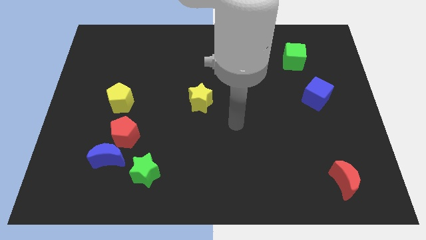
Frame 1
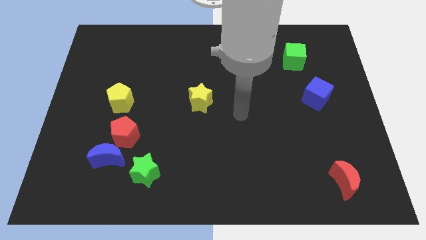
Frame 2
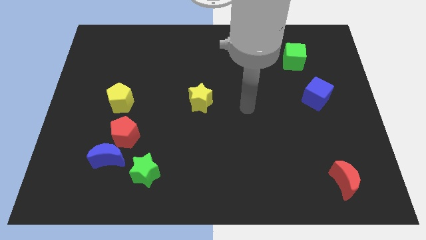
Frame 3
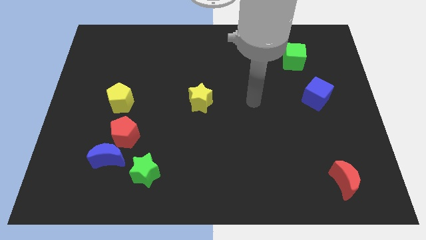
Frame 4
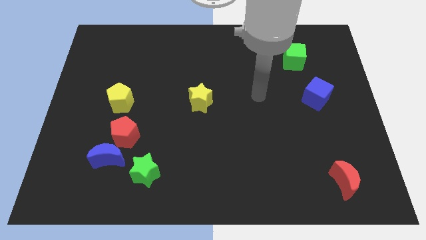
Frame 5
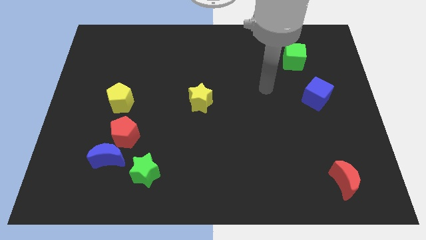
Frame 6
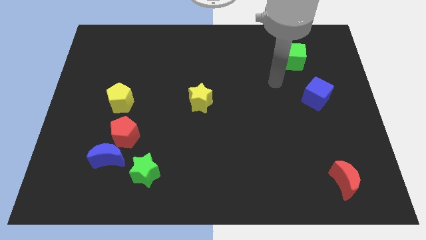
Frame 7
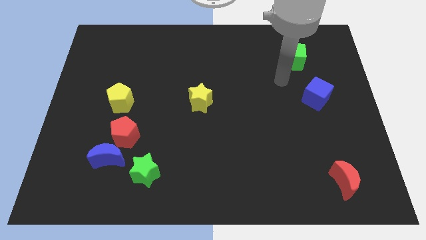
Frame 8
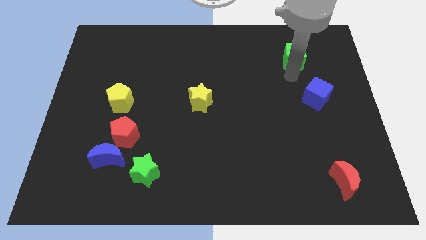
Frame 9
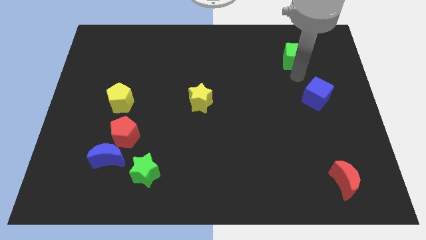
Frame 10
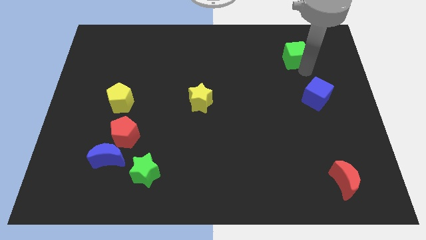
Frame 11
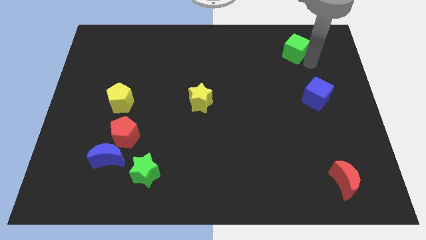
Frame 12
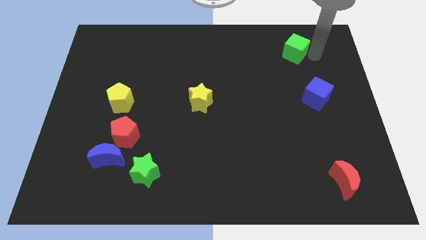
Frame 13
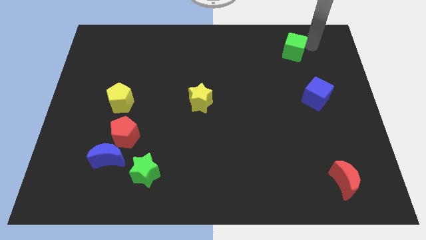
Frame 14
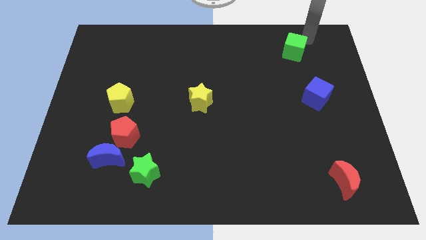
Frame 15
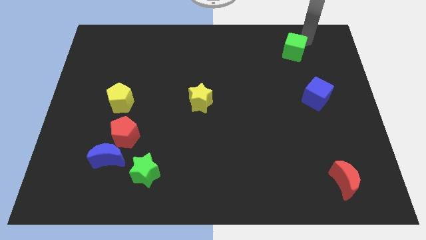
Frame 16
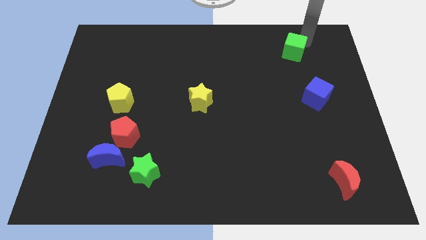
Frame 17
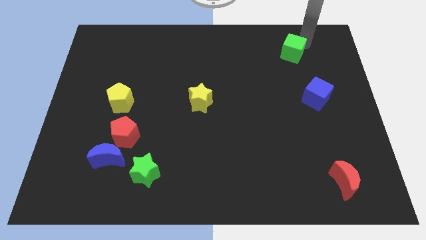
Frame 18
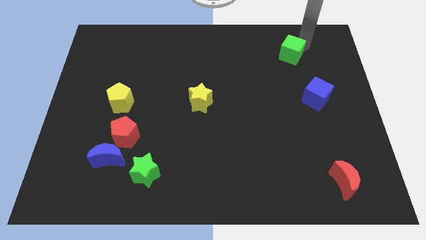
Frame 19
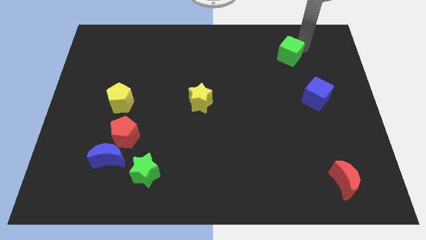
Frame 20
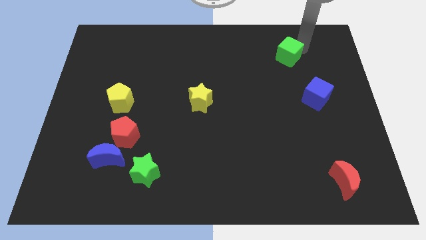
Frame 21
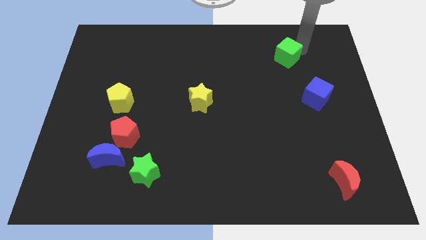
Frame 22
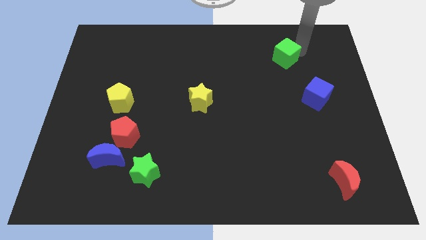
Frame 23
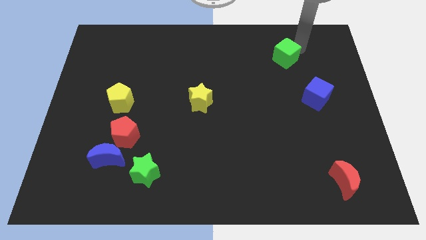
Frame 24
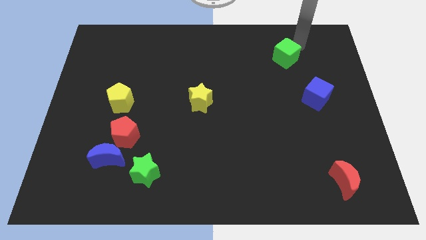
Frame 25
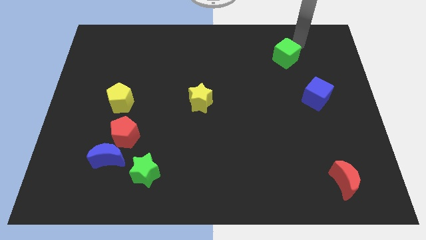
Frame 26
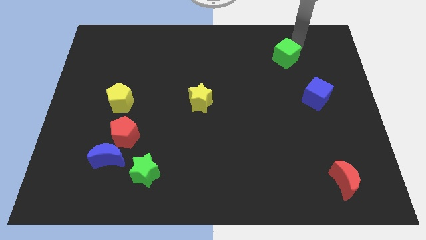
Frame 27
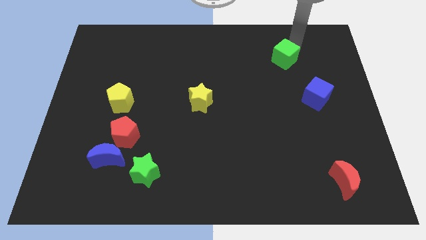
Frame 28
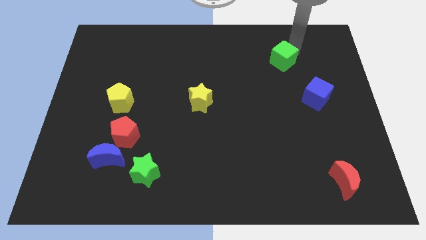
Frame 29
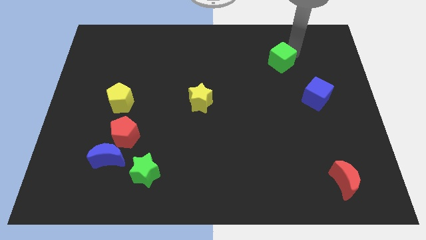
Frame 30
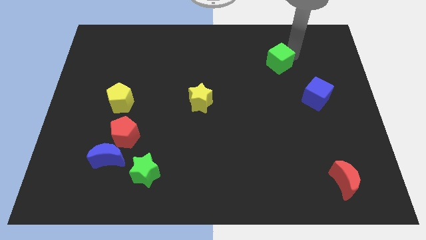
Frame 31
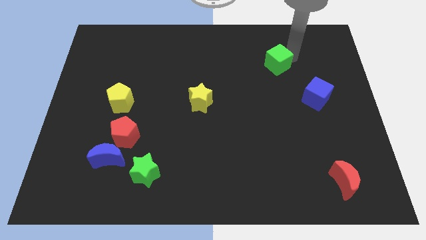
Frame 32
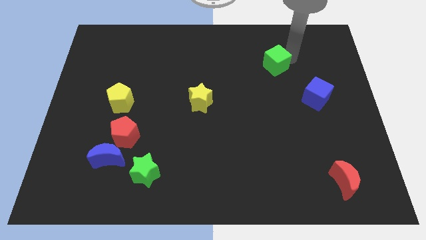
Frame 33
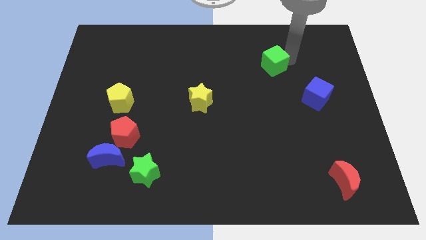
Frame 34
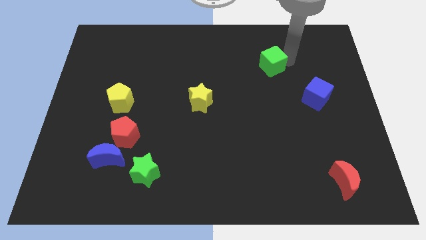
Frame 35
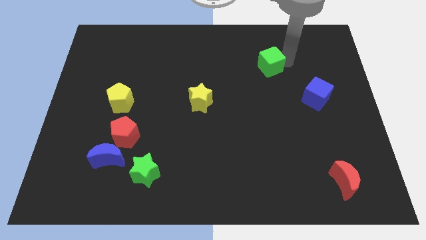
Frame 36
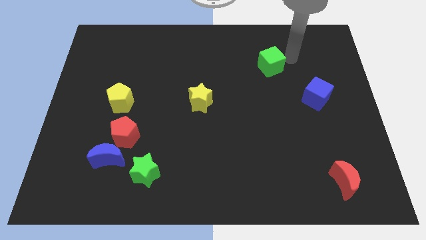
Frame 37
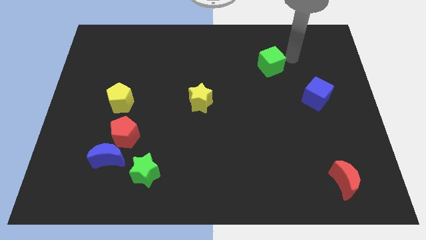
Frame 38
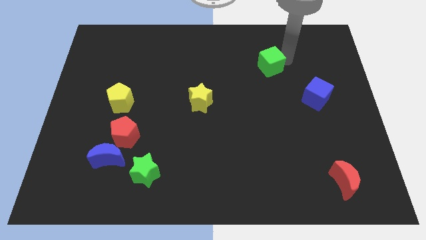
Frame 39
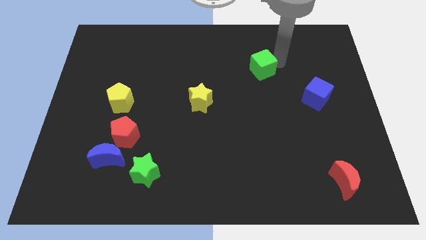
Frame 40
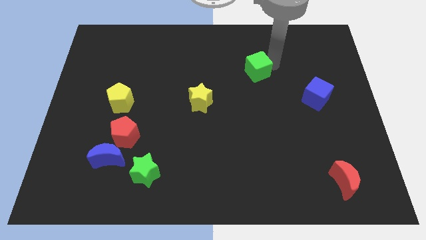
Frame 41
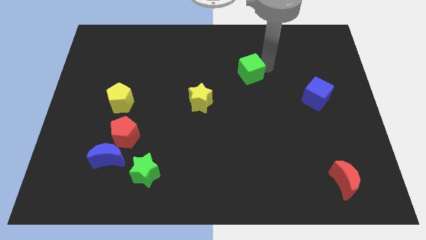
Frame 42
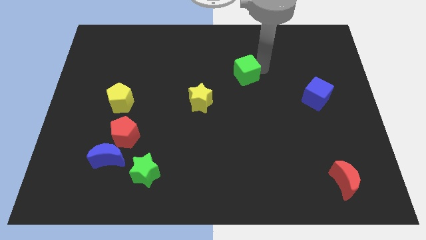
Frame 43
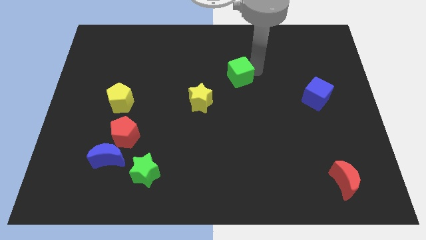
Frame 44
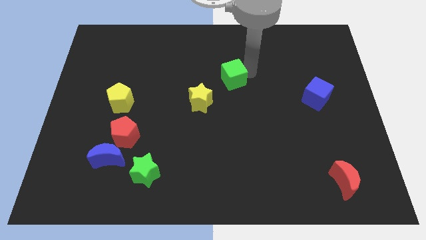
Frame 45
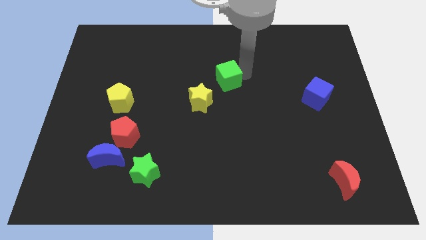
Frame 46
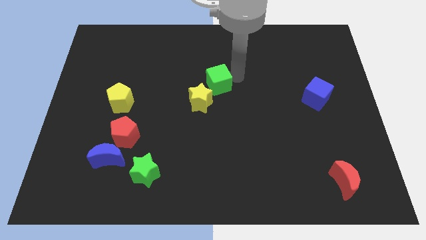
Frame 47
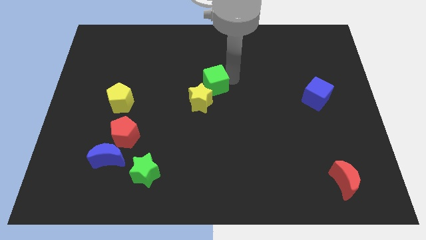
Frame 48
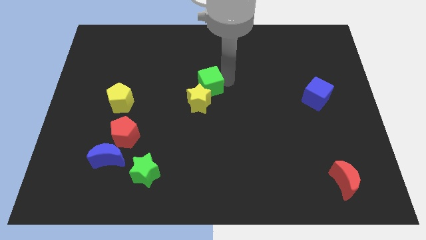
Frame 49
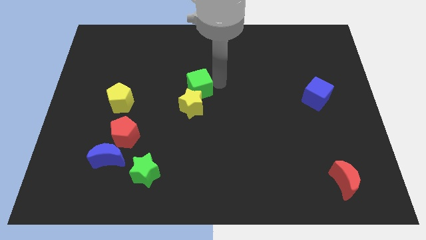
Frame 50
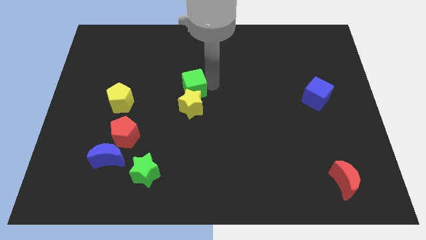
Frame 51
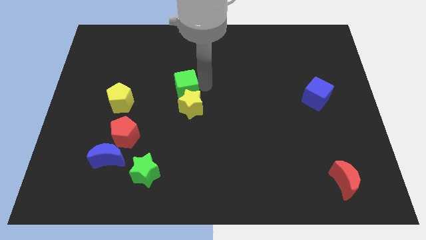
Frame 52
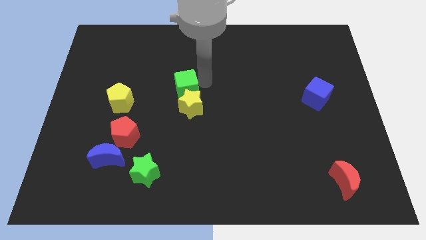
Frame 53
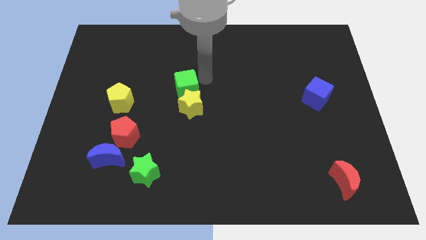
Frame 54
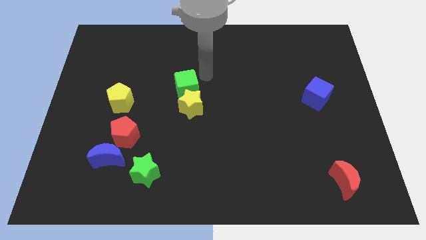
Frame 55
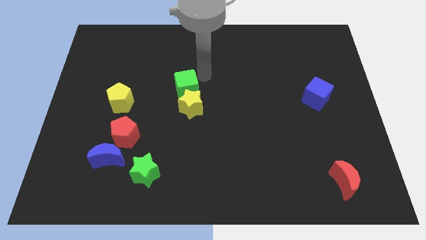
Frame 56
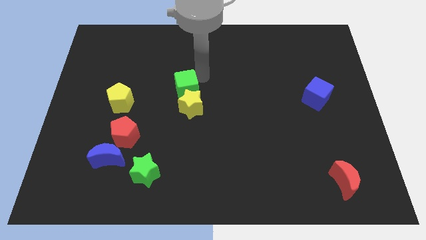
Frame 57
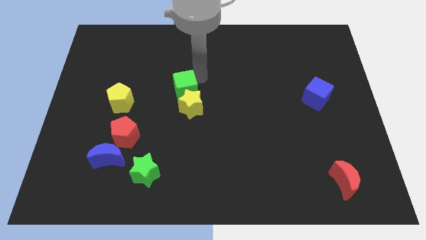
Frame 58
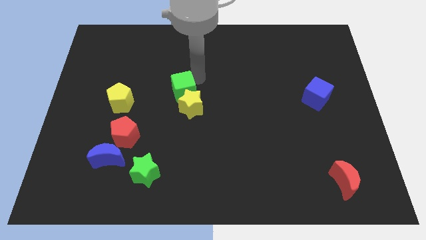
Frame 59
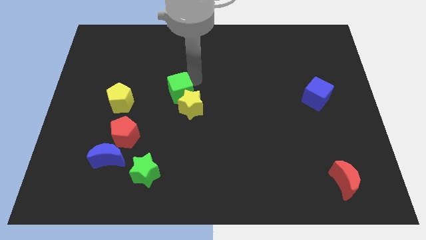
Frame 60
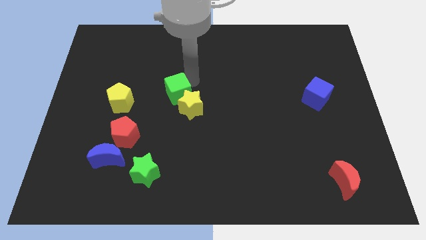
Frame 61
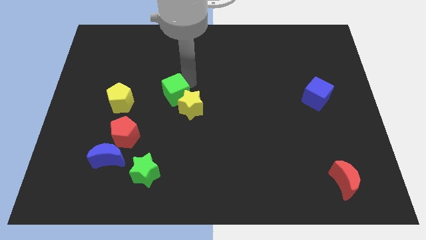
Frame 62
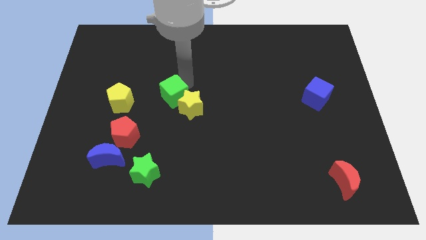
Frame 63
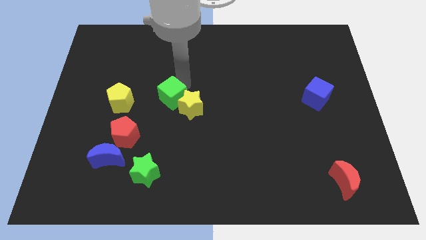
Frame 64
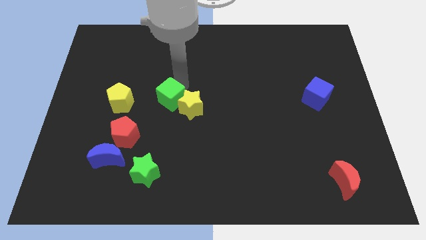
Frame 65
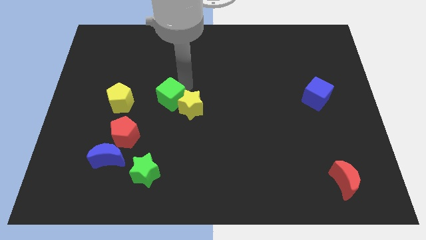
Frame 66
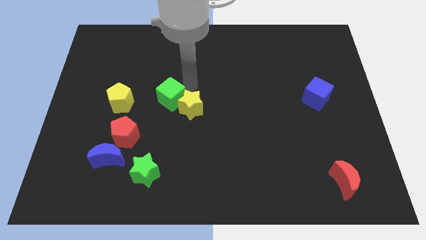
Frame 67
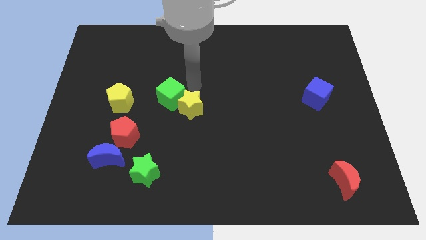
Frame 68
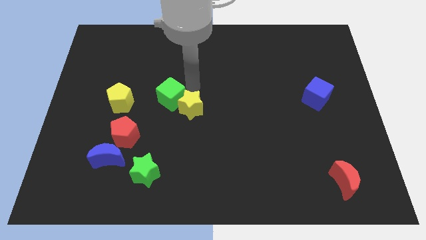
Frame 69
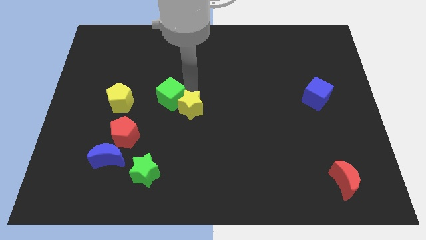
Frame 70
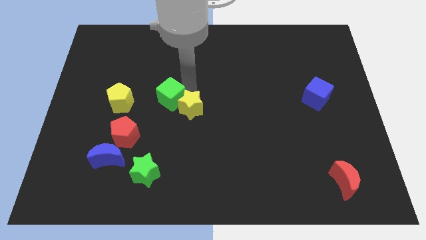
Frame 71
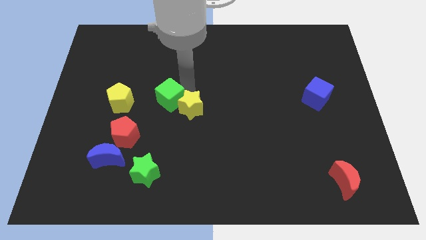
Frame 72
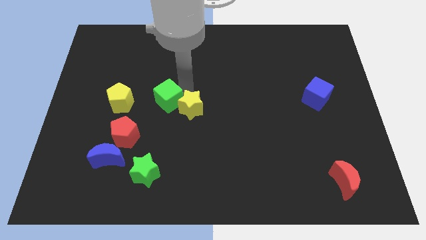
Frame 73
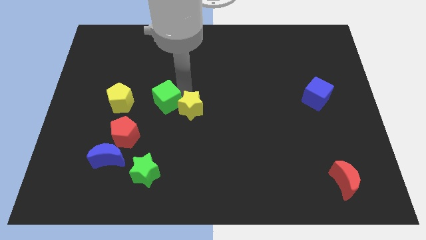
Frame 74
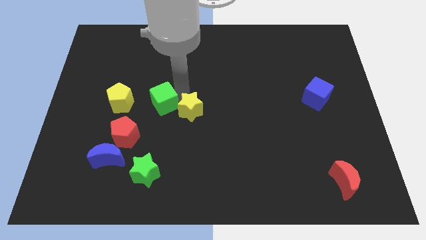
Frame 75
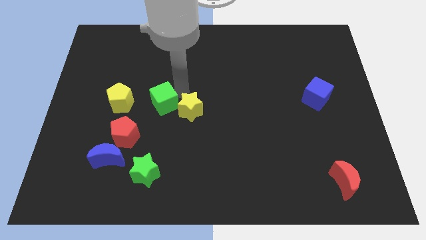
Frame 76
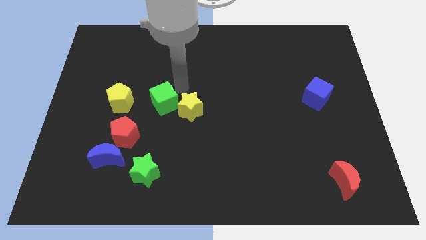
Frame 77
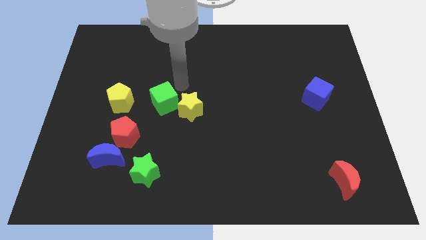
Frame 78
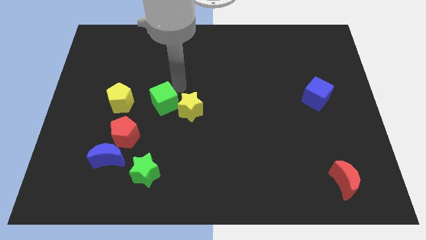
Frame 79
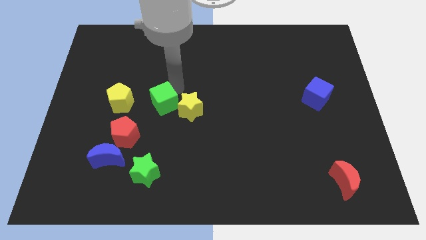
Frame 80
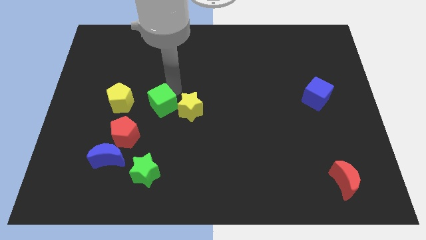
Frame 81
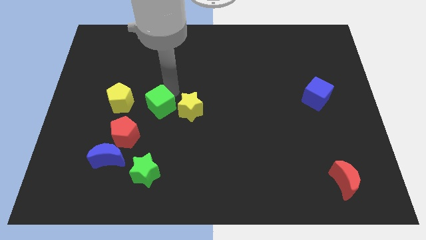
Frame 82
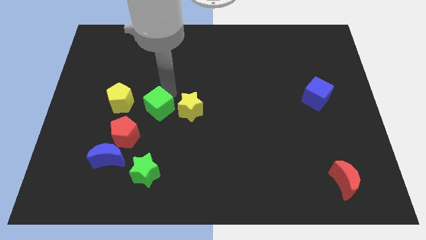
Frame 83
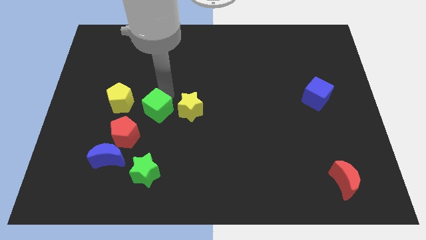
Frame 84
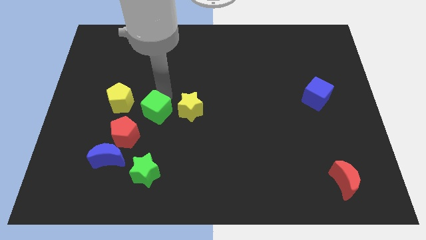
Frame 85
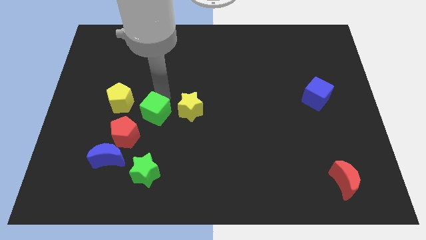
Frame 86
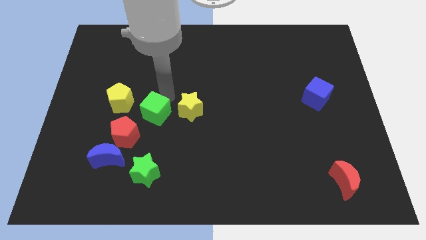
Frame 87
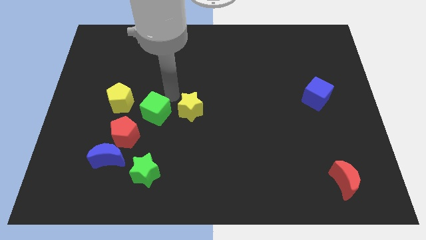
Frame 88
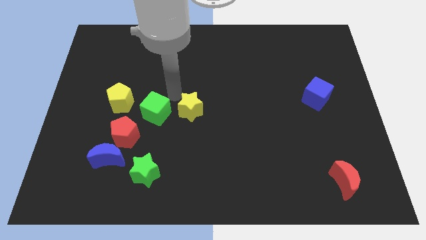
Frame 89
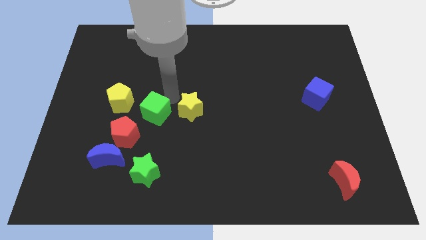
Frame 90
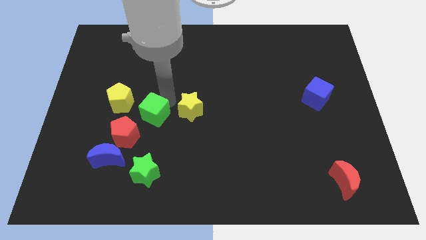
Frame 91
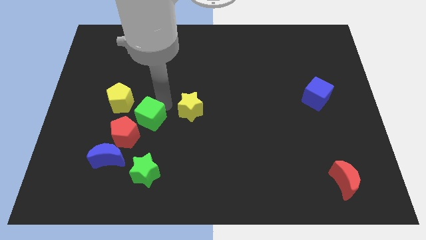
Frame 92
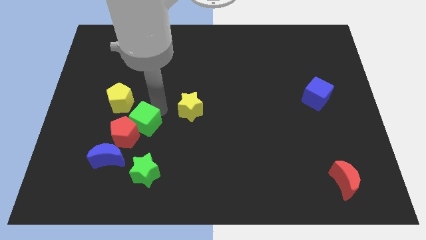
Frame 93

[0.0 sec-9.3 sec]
move the green cube next to the red pentagon
